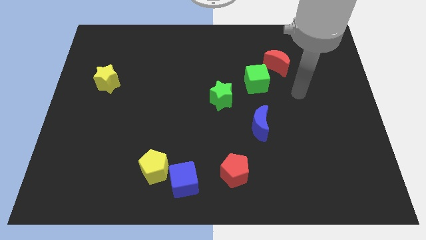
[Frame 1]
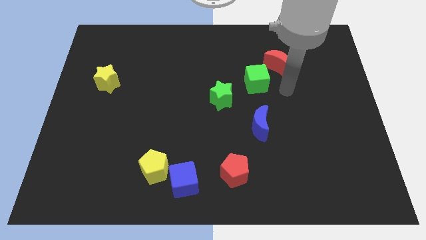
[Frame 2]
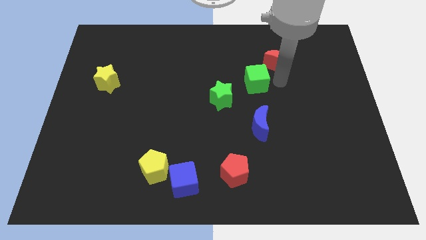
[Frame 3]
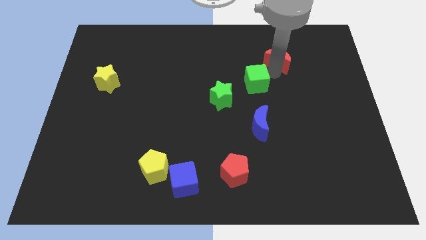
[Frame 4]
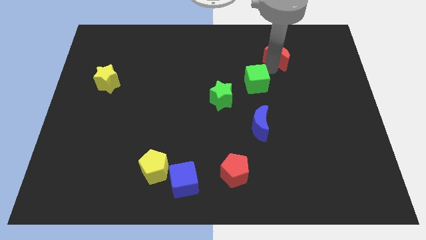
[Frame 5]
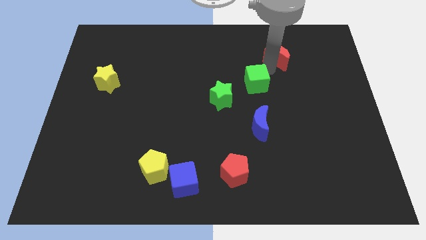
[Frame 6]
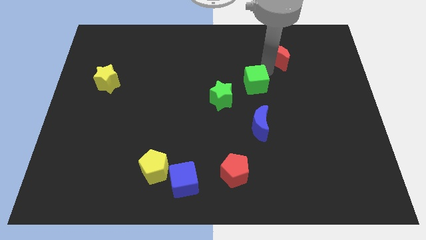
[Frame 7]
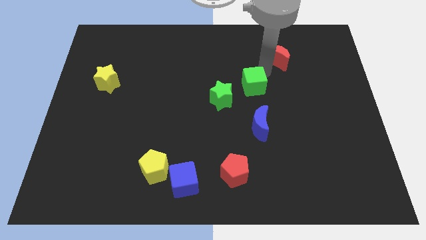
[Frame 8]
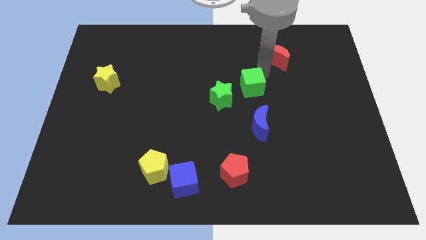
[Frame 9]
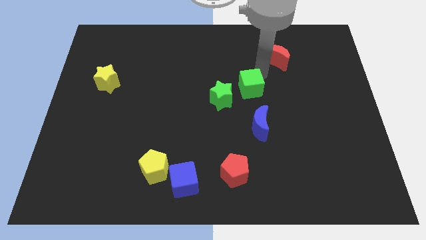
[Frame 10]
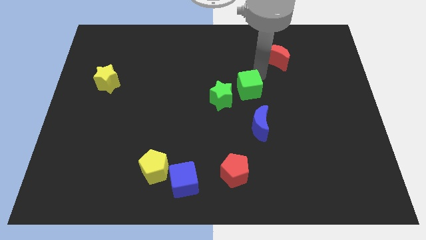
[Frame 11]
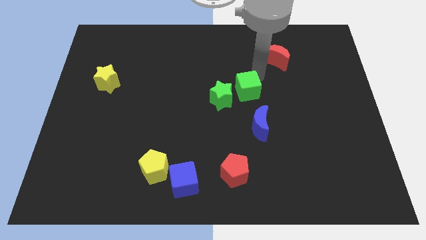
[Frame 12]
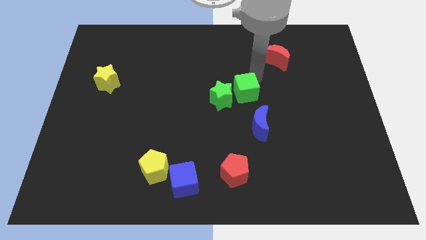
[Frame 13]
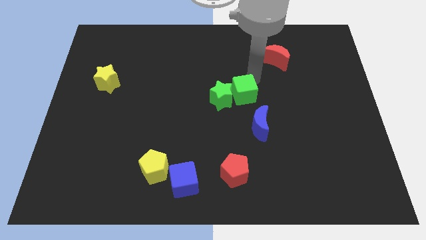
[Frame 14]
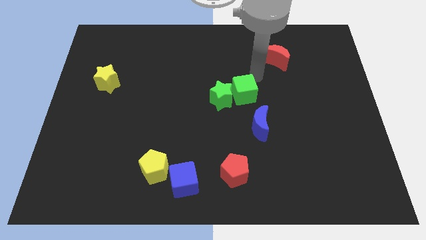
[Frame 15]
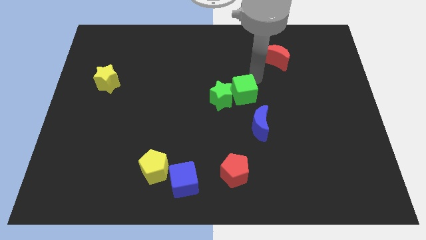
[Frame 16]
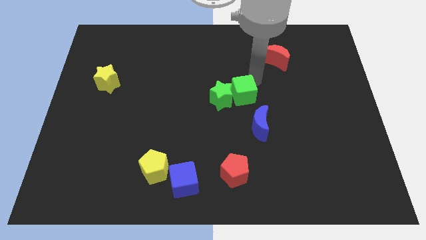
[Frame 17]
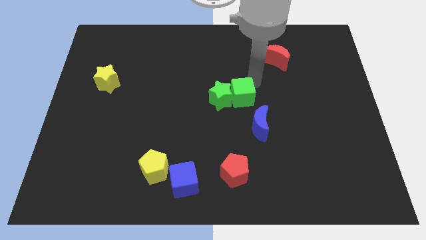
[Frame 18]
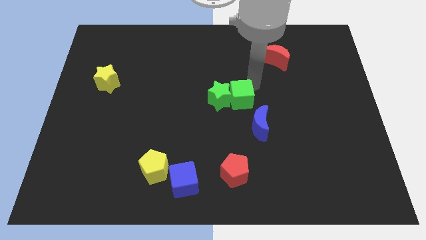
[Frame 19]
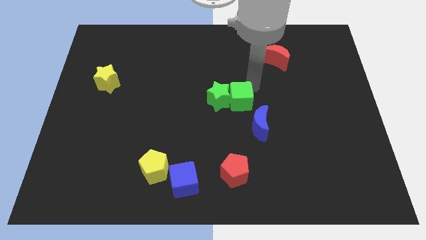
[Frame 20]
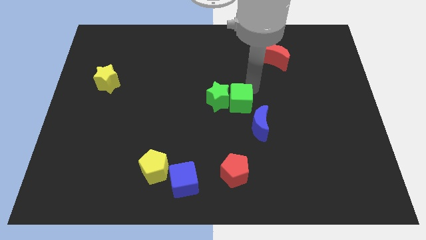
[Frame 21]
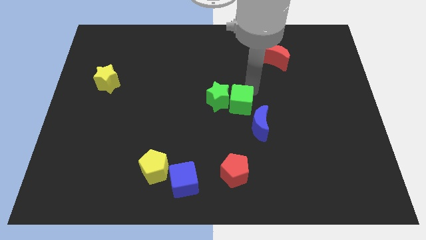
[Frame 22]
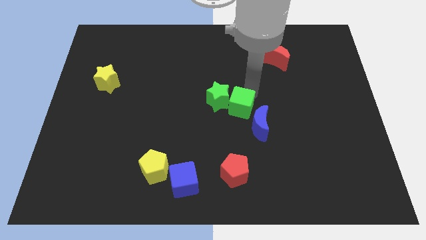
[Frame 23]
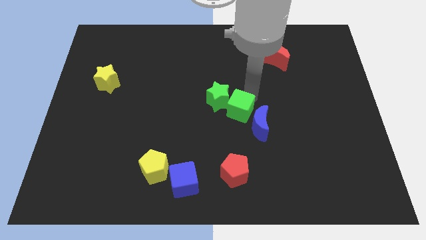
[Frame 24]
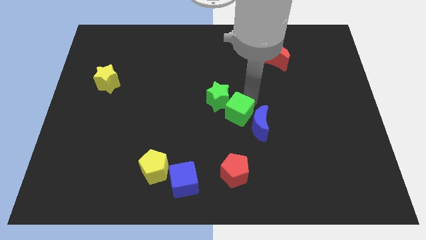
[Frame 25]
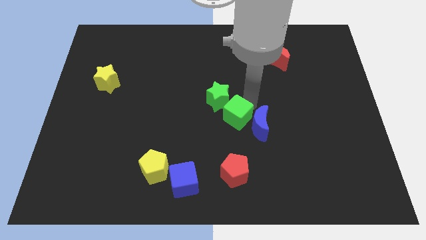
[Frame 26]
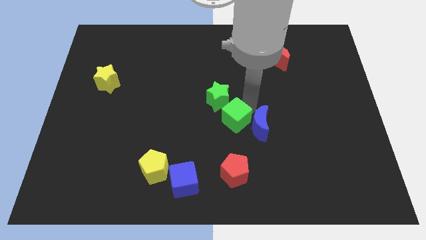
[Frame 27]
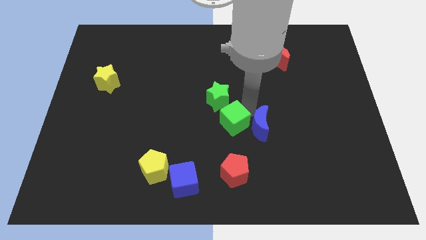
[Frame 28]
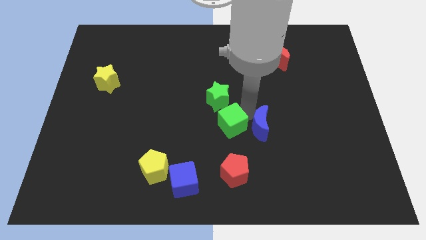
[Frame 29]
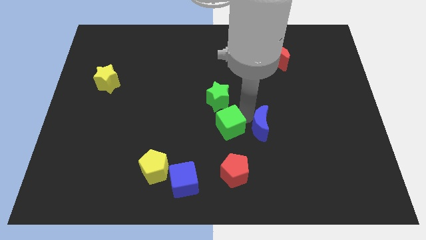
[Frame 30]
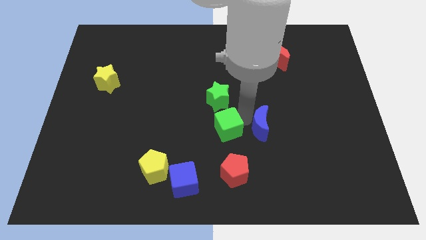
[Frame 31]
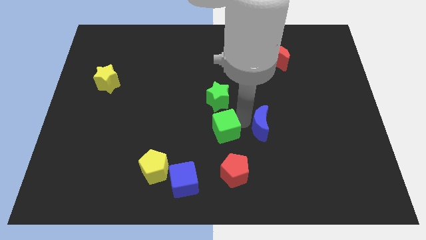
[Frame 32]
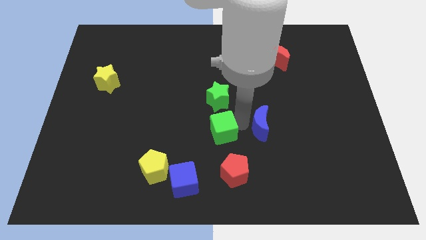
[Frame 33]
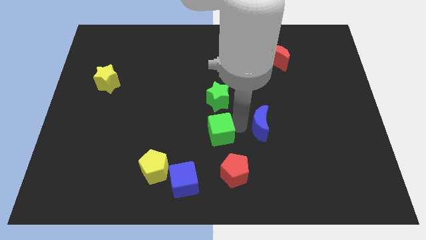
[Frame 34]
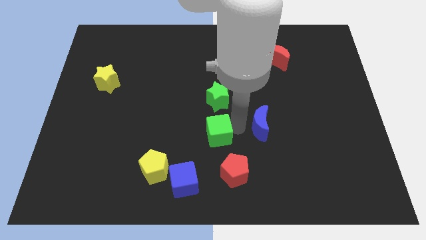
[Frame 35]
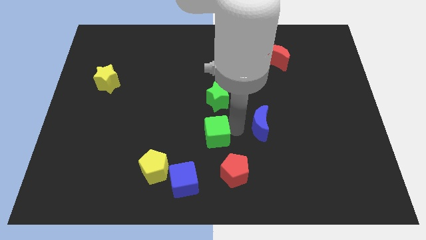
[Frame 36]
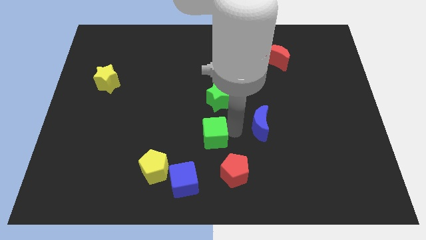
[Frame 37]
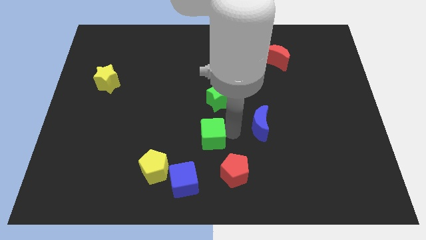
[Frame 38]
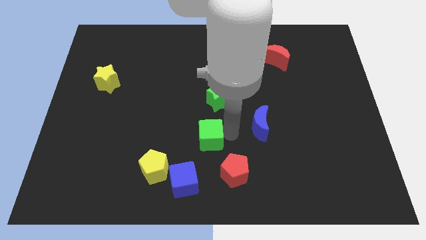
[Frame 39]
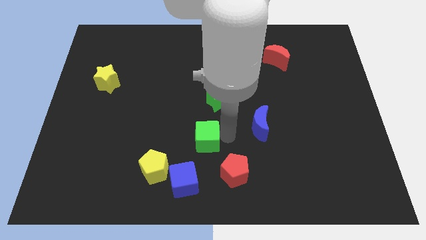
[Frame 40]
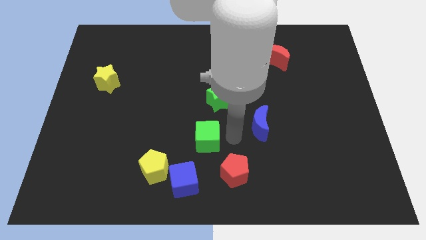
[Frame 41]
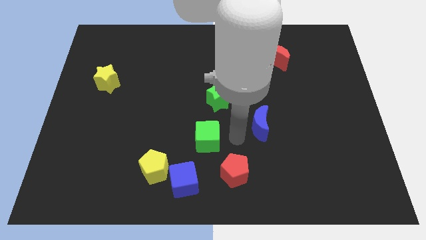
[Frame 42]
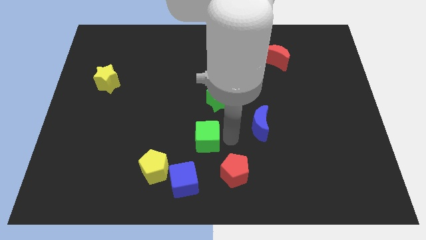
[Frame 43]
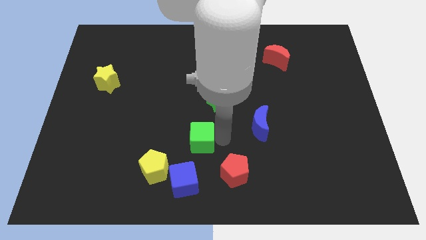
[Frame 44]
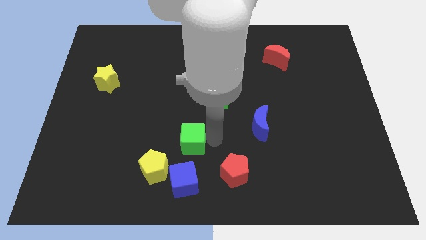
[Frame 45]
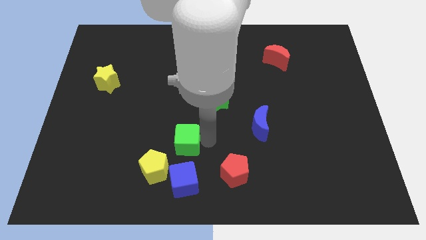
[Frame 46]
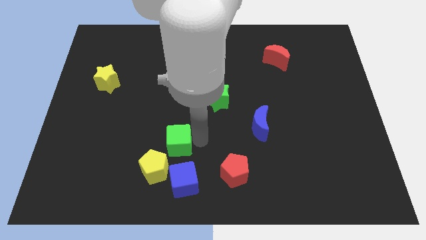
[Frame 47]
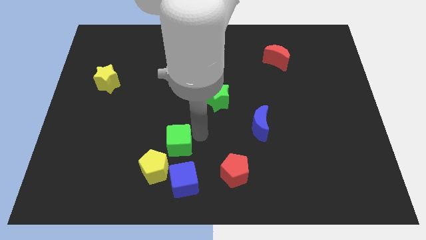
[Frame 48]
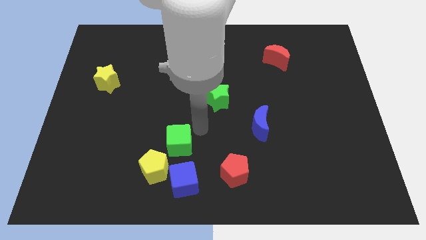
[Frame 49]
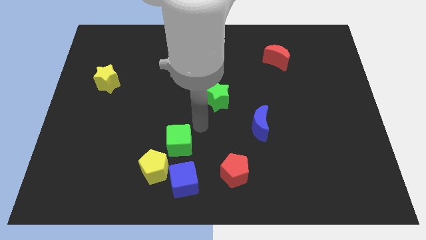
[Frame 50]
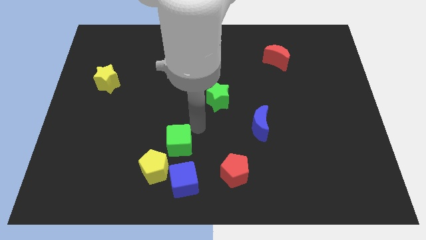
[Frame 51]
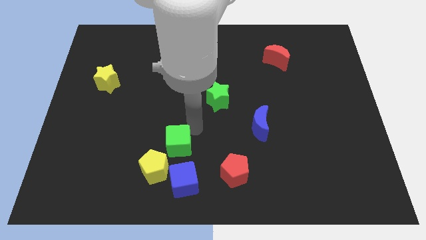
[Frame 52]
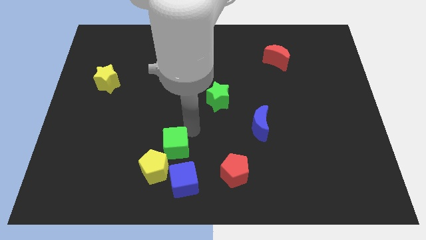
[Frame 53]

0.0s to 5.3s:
push the green cube to the top left side of the blue cube

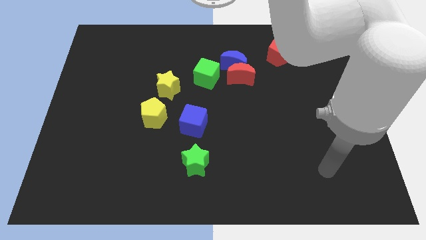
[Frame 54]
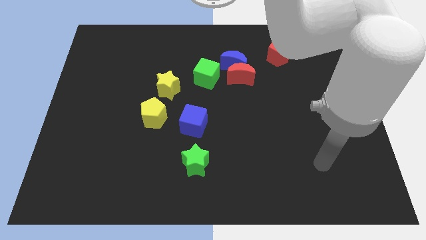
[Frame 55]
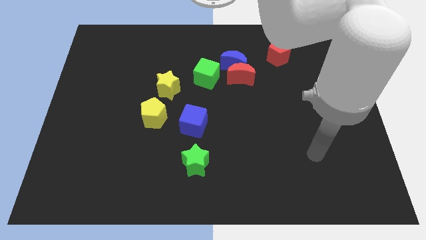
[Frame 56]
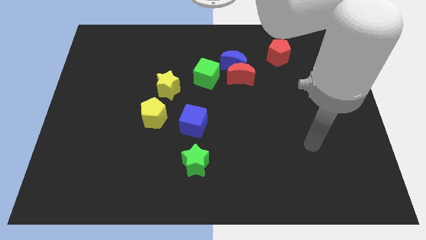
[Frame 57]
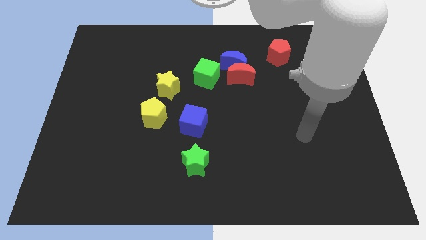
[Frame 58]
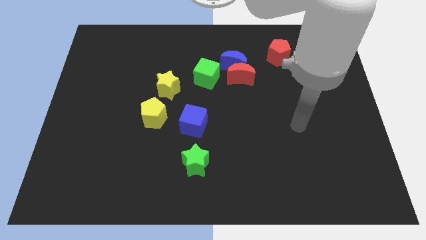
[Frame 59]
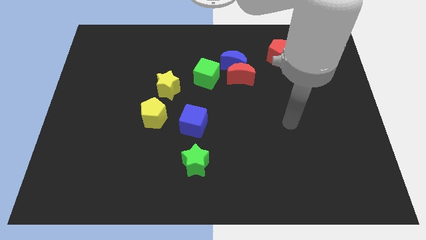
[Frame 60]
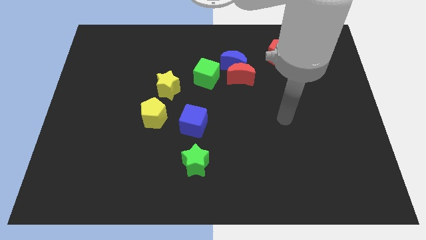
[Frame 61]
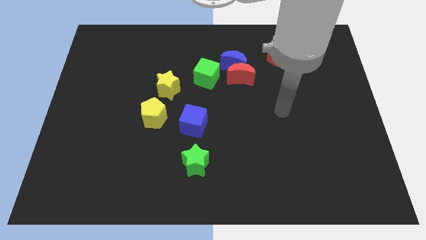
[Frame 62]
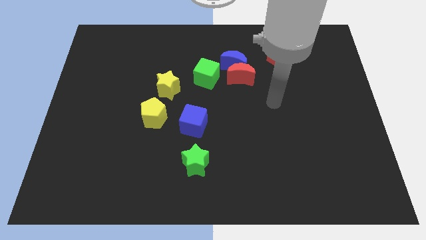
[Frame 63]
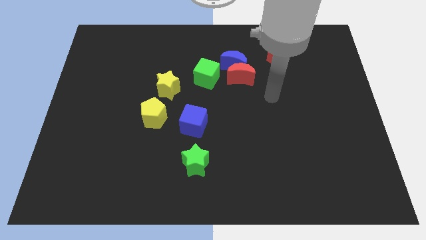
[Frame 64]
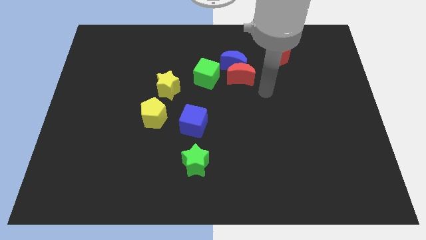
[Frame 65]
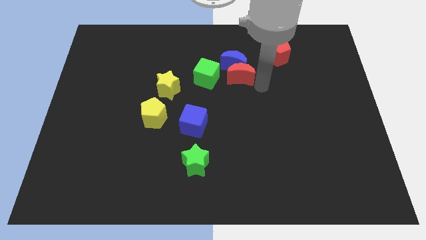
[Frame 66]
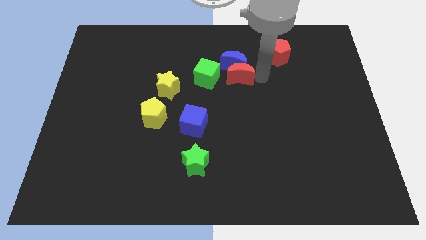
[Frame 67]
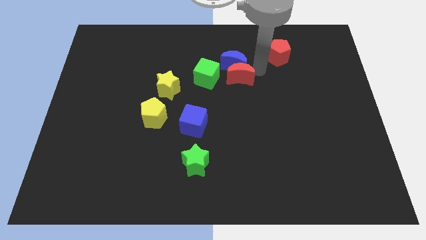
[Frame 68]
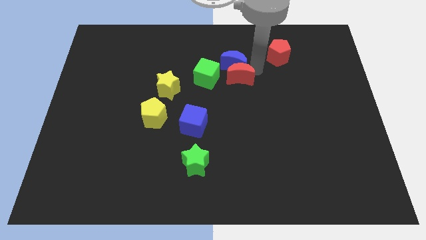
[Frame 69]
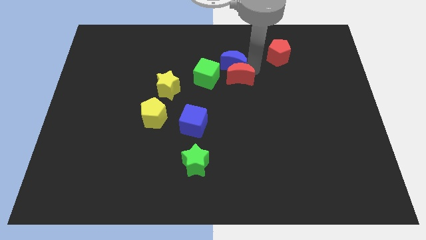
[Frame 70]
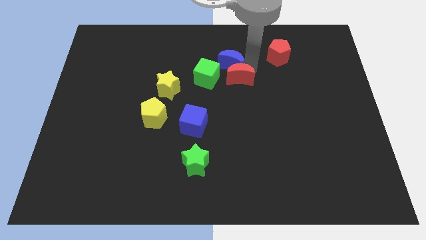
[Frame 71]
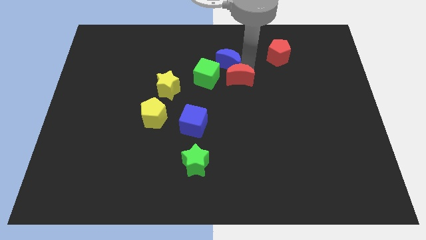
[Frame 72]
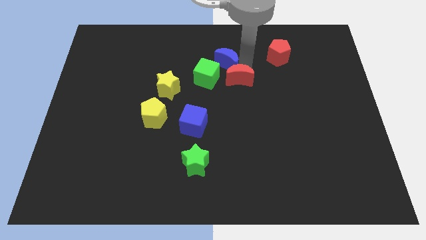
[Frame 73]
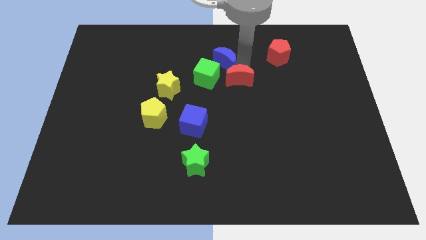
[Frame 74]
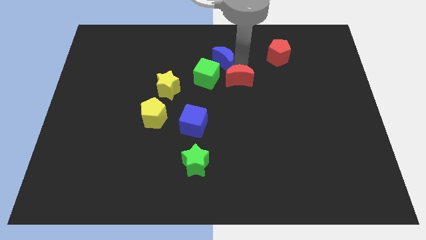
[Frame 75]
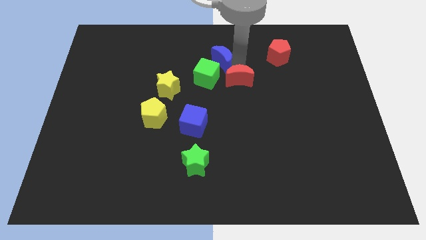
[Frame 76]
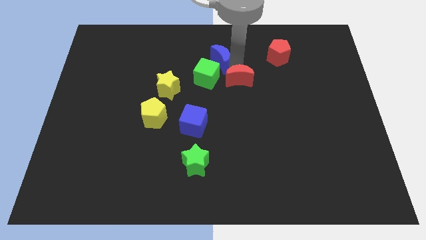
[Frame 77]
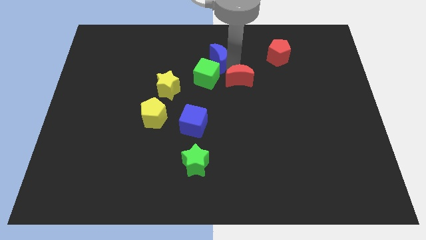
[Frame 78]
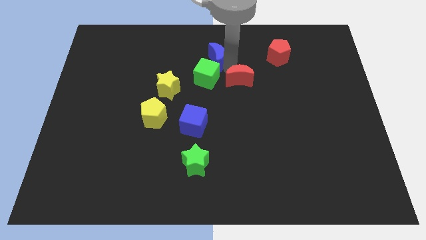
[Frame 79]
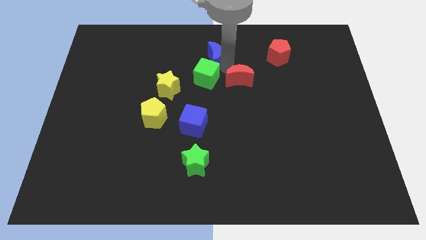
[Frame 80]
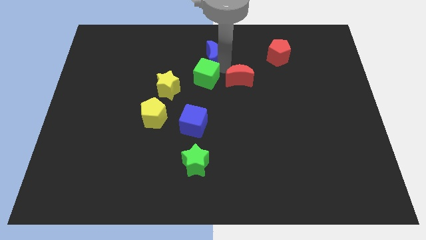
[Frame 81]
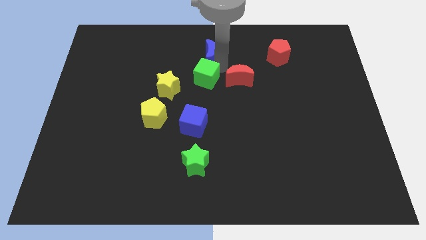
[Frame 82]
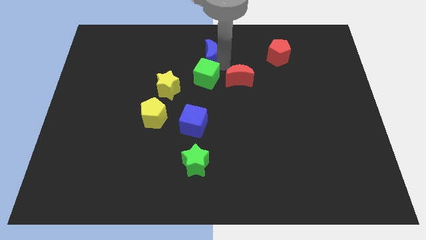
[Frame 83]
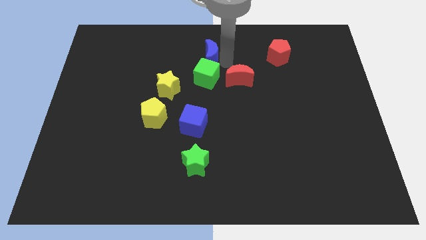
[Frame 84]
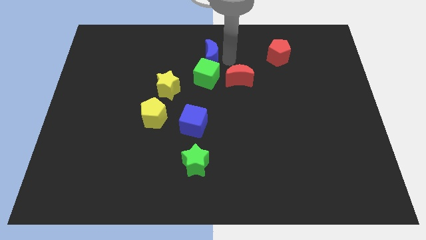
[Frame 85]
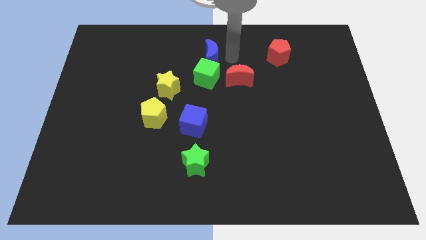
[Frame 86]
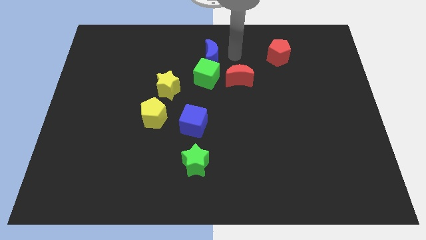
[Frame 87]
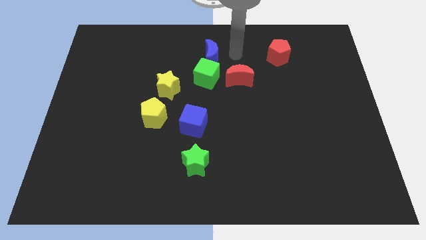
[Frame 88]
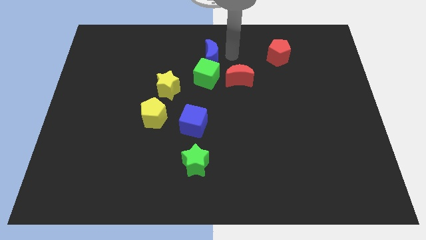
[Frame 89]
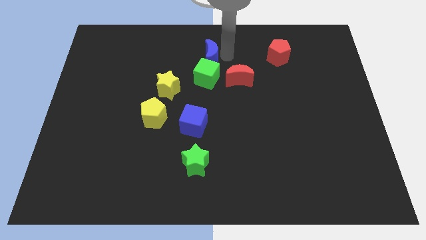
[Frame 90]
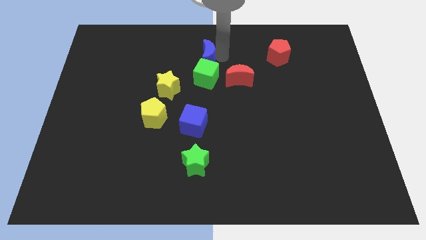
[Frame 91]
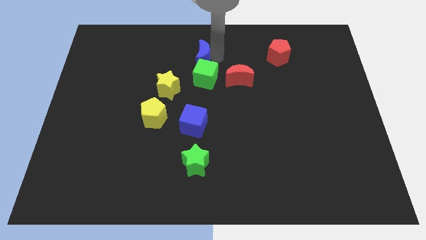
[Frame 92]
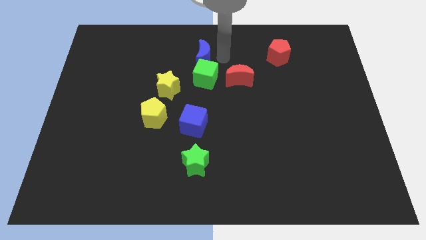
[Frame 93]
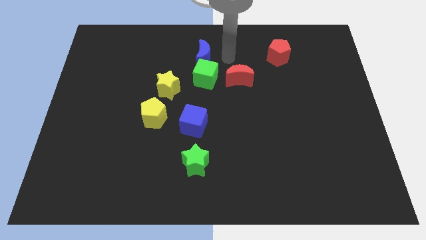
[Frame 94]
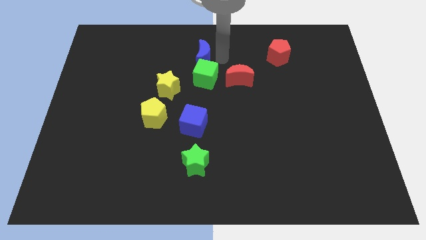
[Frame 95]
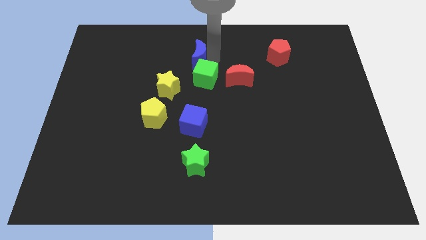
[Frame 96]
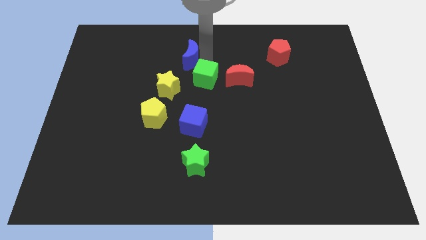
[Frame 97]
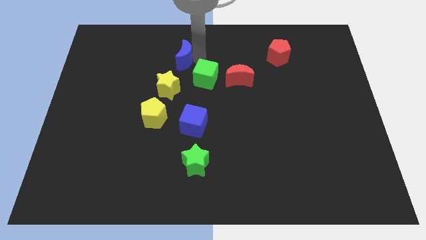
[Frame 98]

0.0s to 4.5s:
push the blue moon above the yellow star
